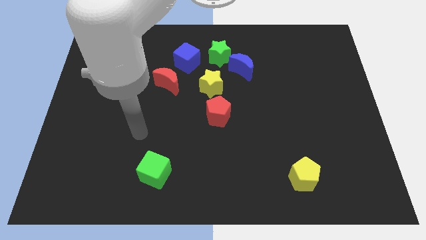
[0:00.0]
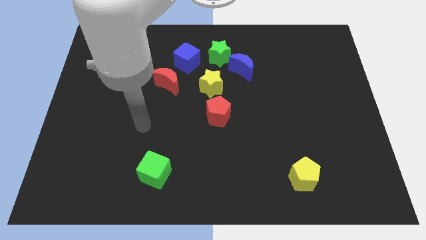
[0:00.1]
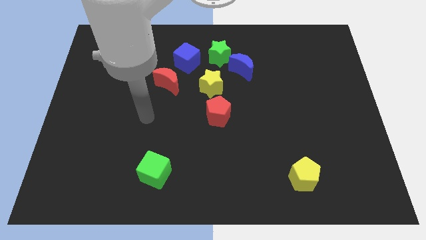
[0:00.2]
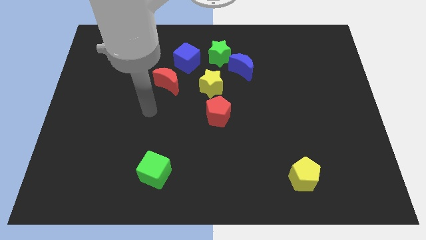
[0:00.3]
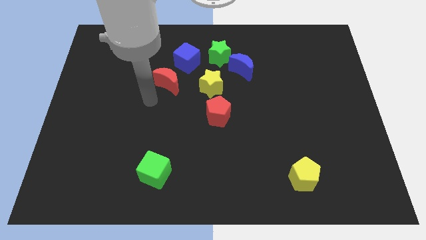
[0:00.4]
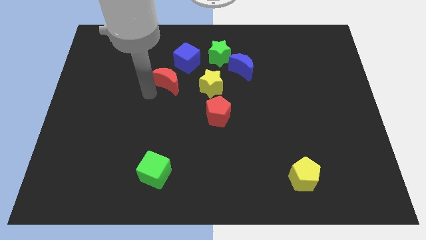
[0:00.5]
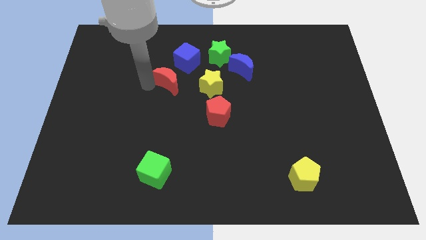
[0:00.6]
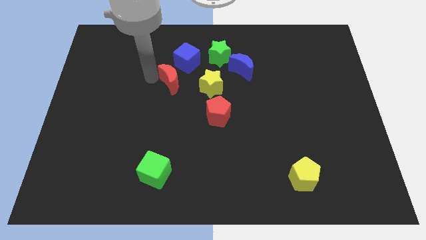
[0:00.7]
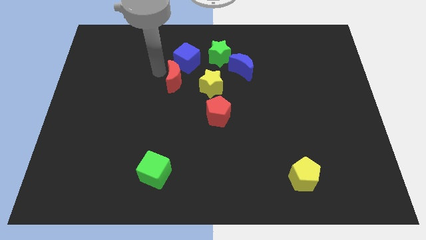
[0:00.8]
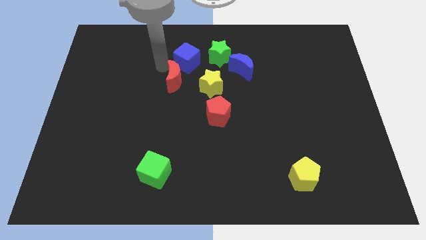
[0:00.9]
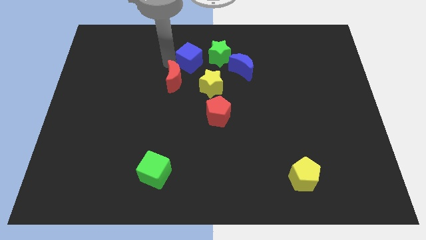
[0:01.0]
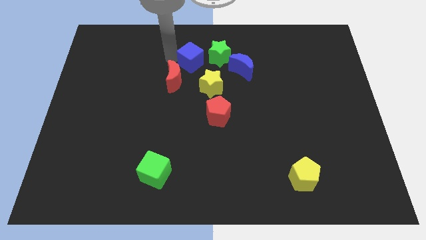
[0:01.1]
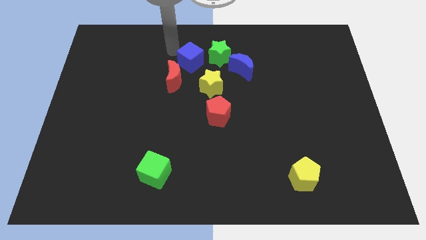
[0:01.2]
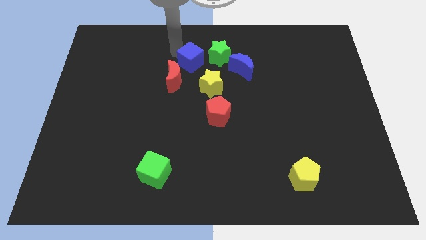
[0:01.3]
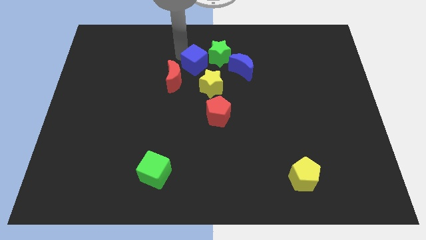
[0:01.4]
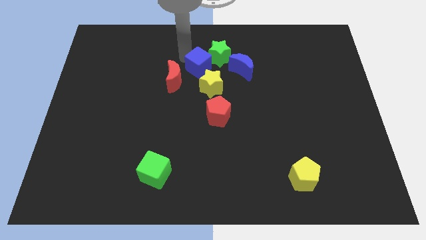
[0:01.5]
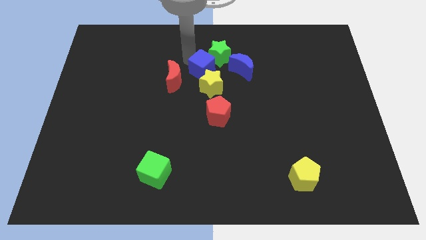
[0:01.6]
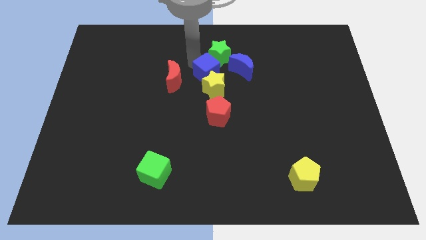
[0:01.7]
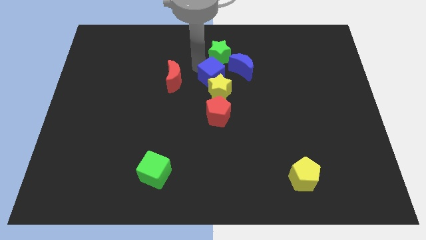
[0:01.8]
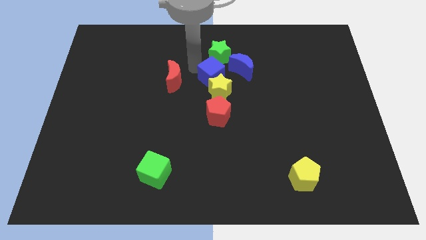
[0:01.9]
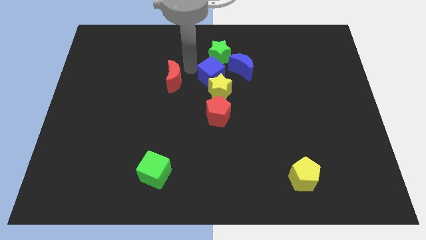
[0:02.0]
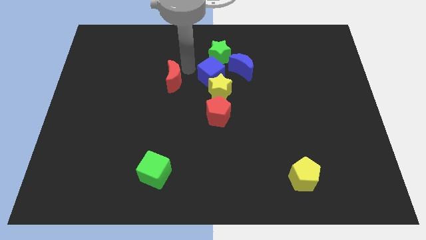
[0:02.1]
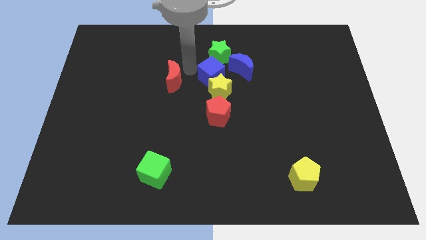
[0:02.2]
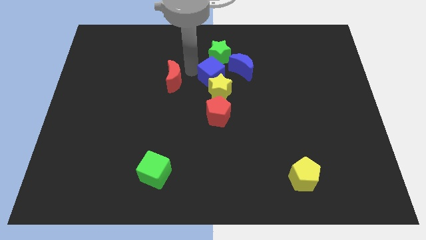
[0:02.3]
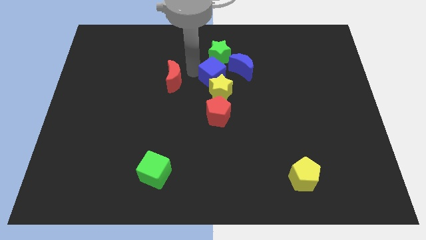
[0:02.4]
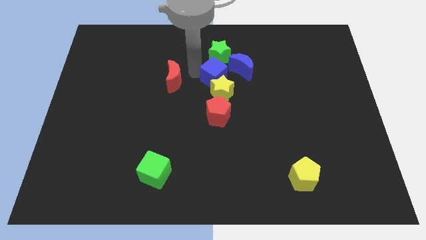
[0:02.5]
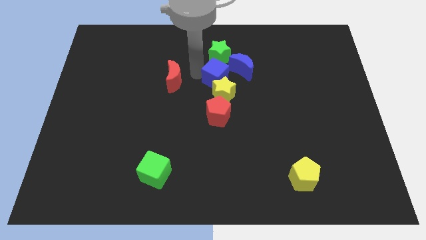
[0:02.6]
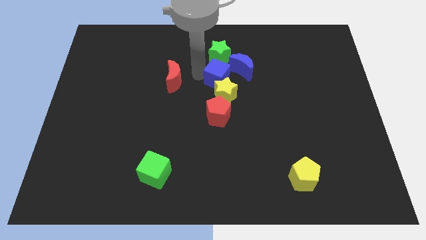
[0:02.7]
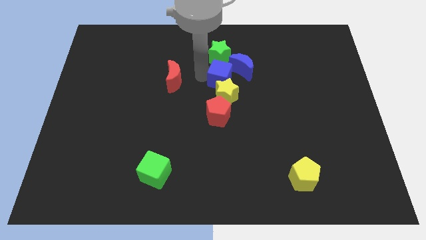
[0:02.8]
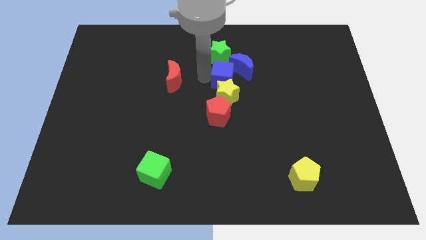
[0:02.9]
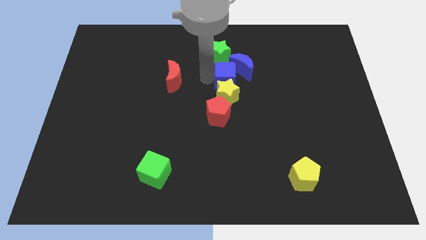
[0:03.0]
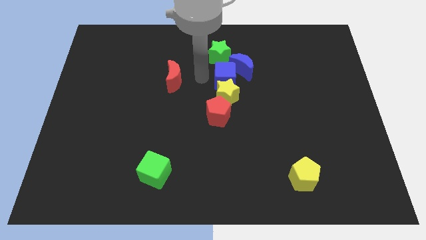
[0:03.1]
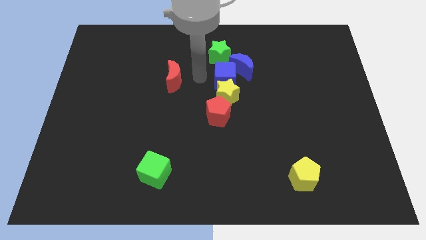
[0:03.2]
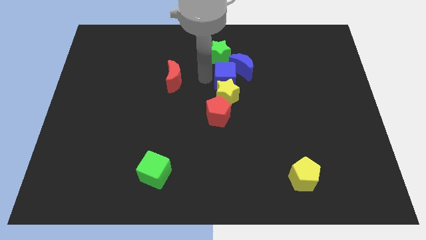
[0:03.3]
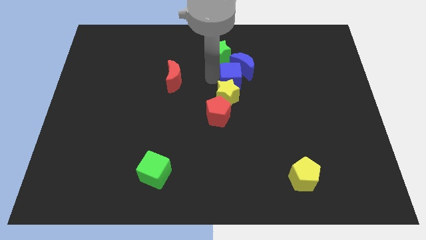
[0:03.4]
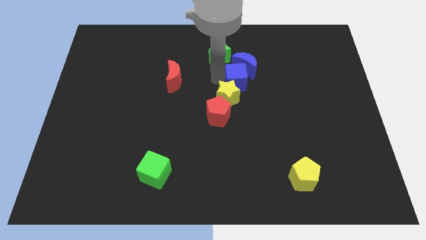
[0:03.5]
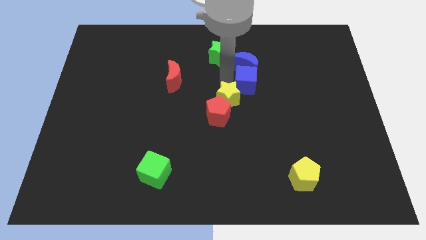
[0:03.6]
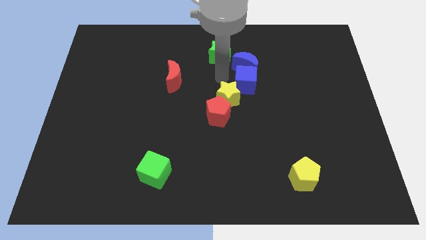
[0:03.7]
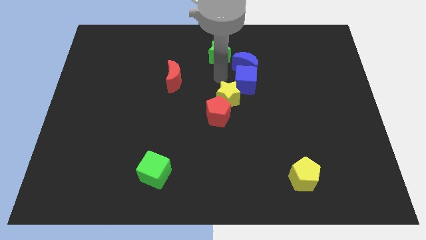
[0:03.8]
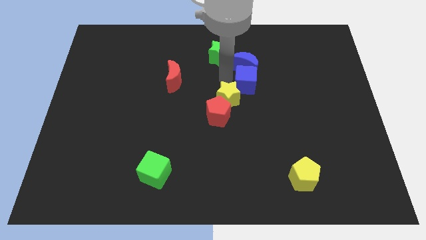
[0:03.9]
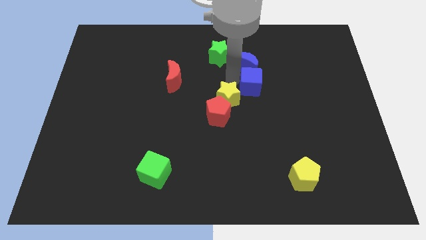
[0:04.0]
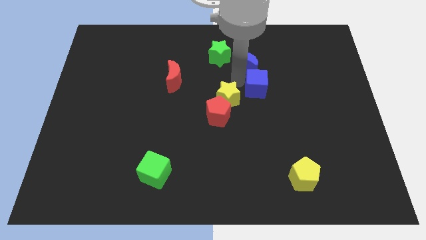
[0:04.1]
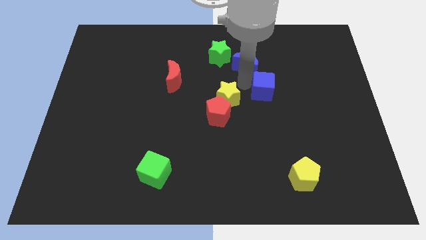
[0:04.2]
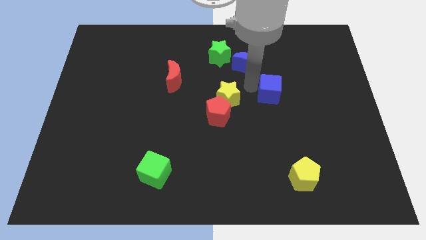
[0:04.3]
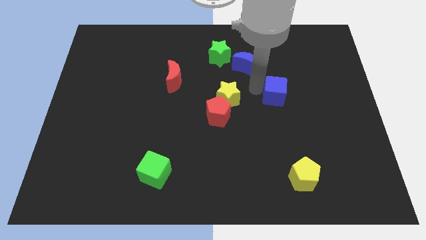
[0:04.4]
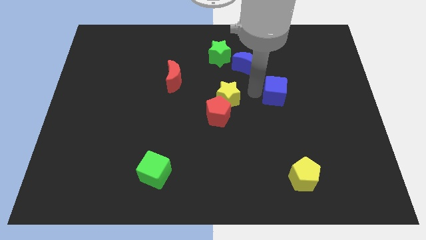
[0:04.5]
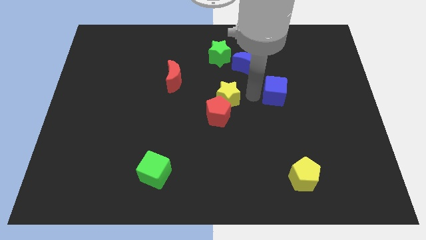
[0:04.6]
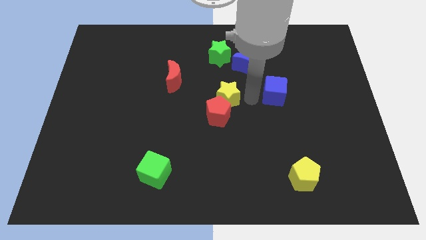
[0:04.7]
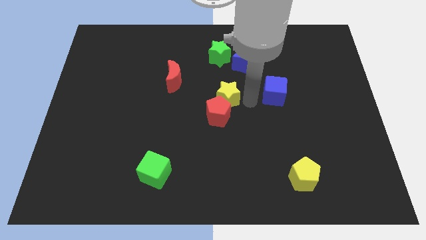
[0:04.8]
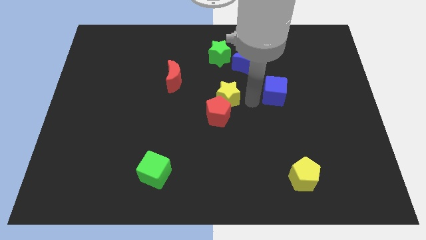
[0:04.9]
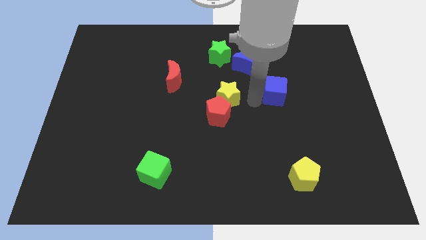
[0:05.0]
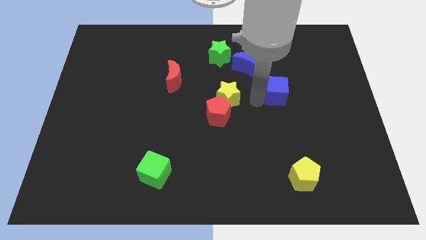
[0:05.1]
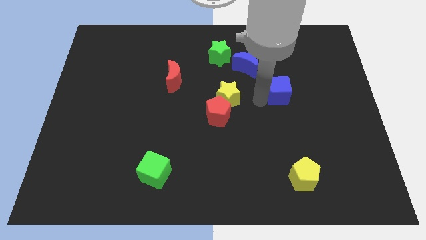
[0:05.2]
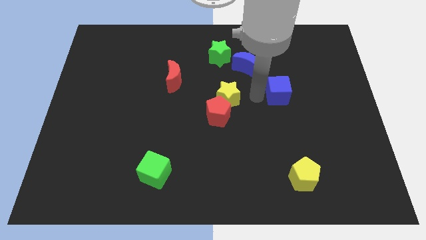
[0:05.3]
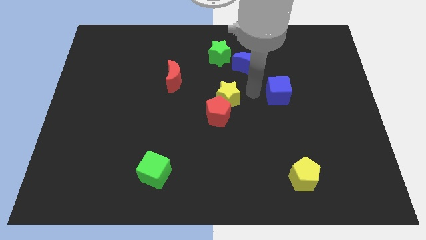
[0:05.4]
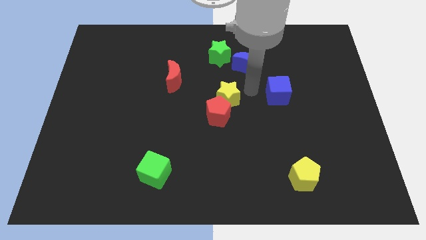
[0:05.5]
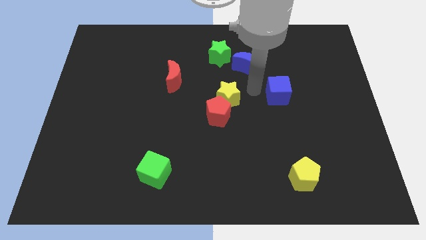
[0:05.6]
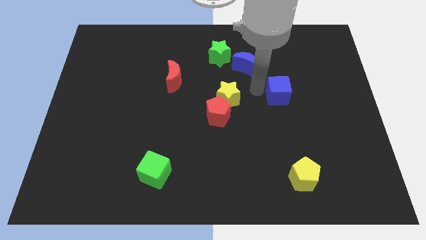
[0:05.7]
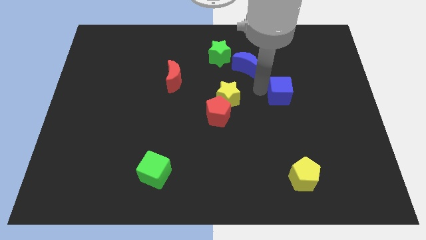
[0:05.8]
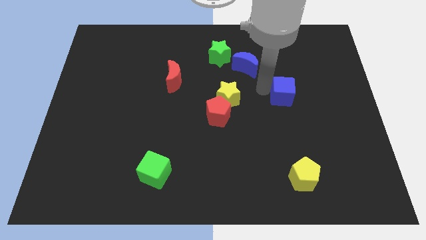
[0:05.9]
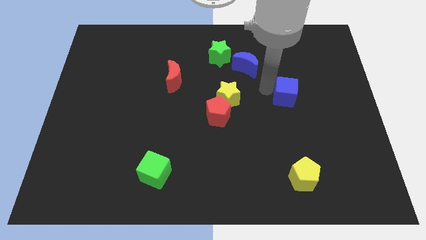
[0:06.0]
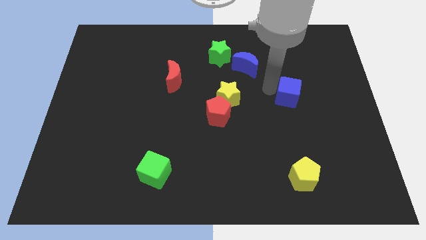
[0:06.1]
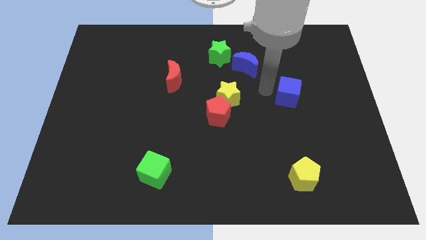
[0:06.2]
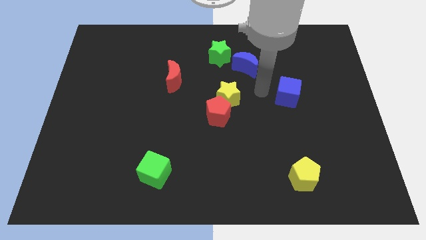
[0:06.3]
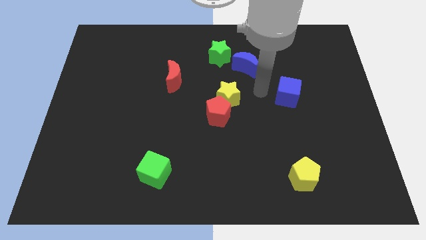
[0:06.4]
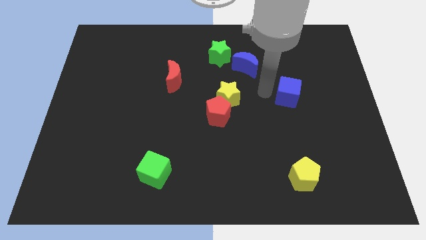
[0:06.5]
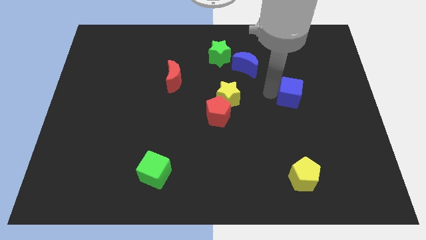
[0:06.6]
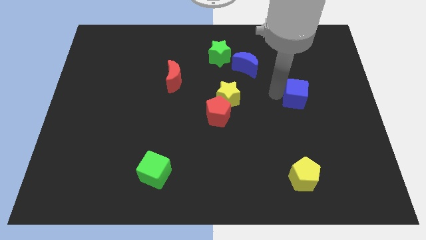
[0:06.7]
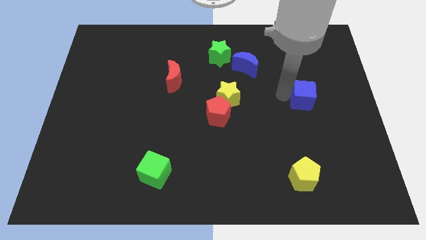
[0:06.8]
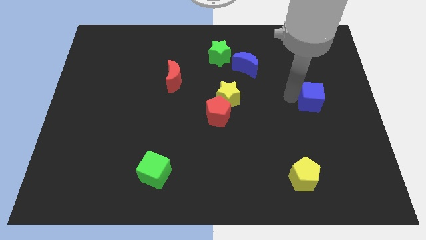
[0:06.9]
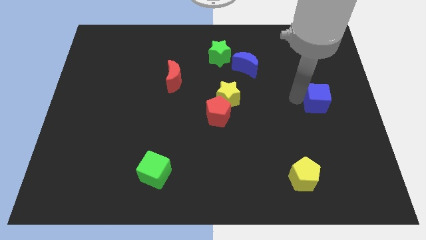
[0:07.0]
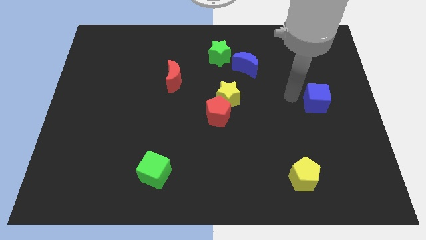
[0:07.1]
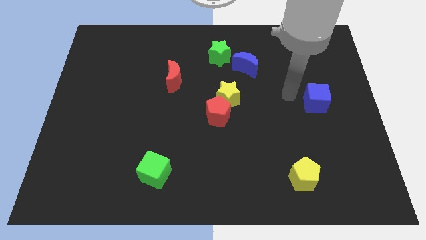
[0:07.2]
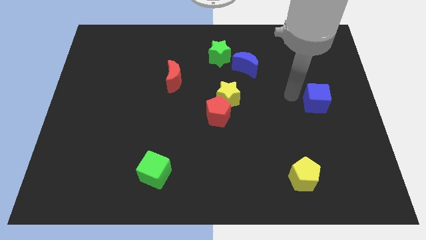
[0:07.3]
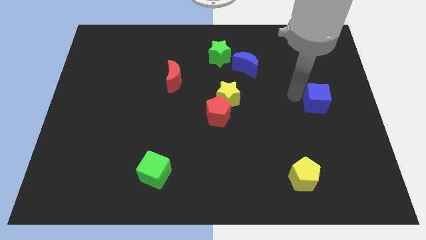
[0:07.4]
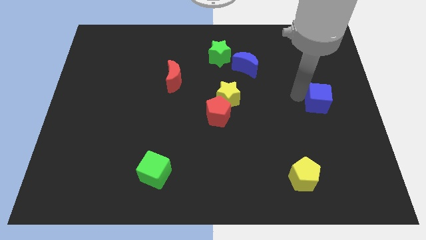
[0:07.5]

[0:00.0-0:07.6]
push the blue cube to the right side
